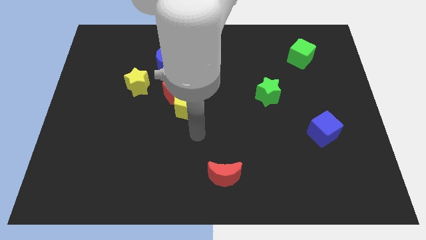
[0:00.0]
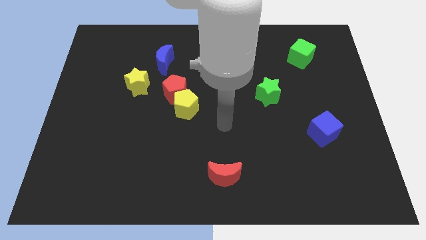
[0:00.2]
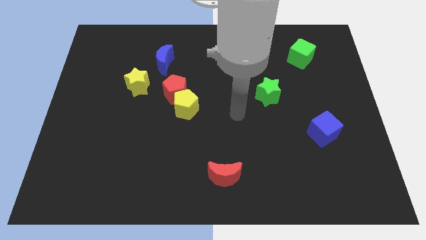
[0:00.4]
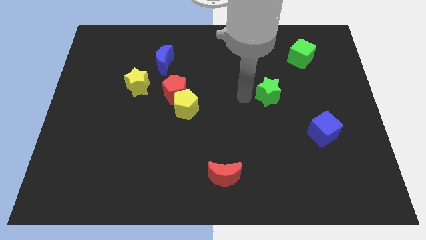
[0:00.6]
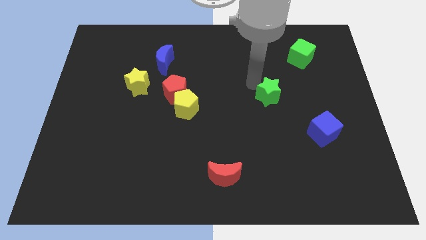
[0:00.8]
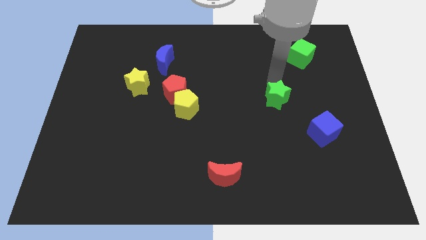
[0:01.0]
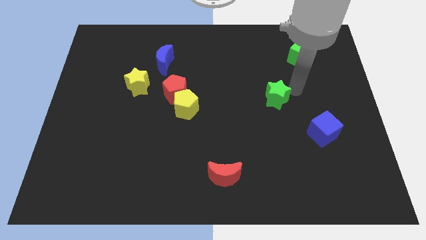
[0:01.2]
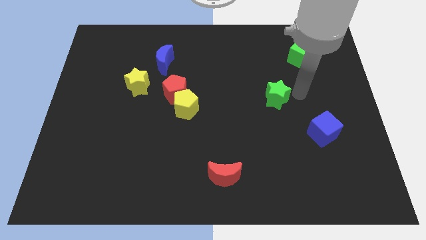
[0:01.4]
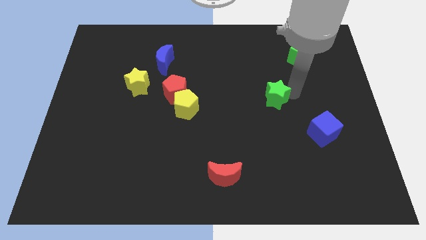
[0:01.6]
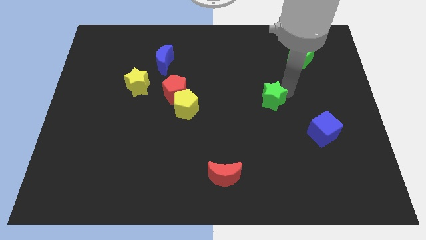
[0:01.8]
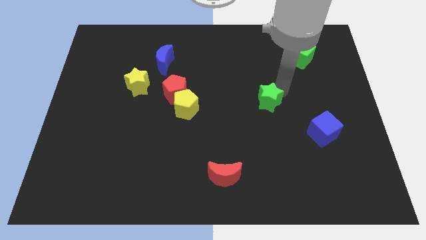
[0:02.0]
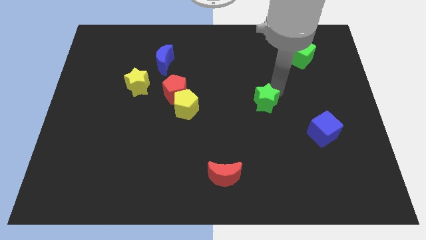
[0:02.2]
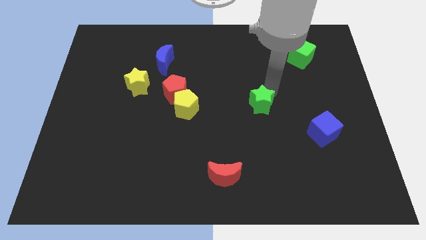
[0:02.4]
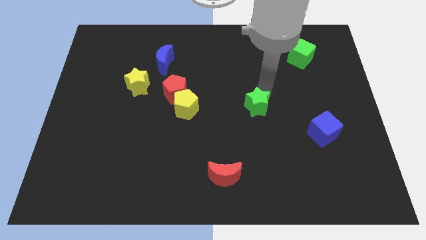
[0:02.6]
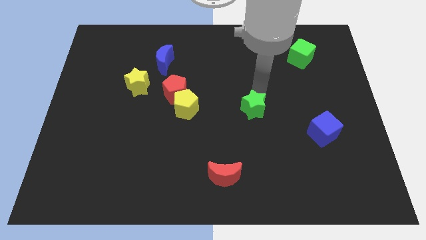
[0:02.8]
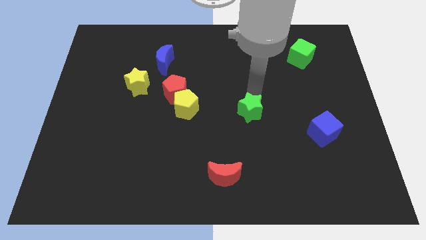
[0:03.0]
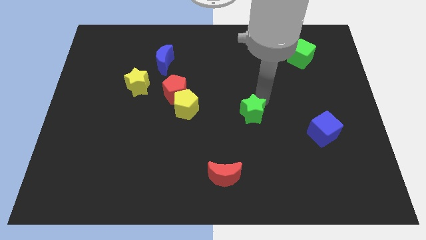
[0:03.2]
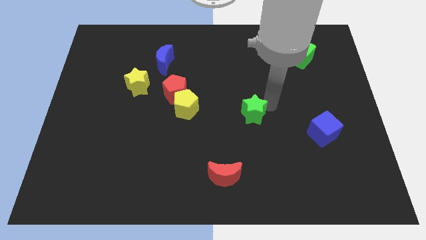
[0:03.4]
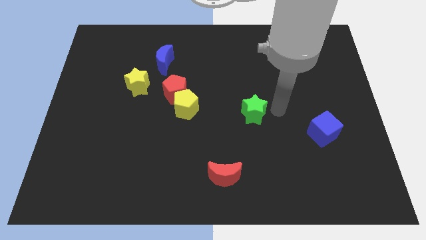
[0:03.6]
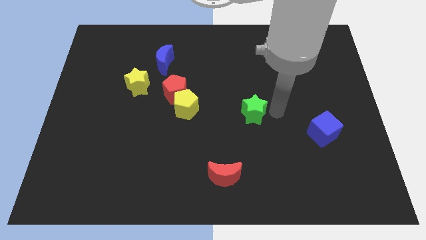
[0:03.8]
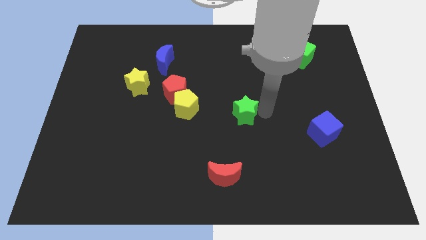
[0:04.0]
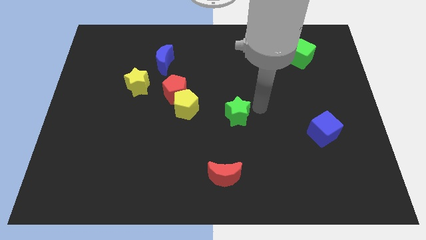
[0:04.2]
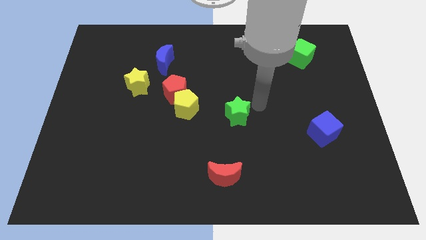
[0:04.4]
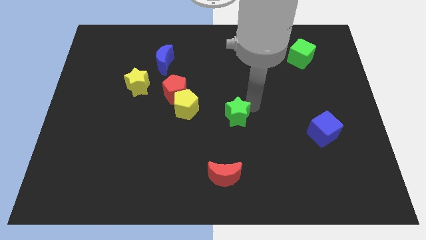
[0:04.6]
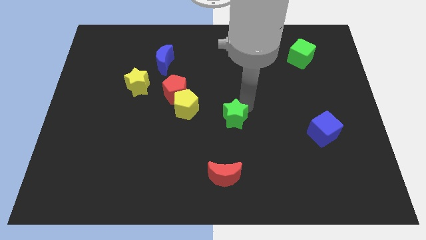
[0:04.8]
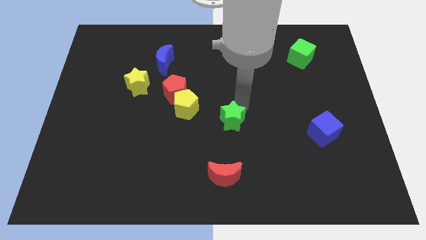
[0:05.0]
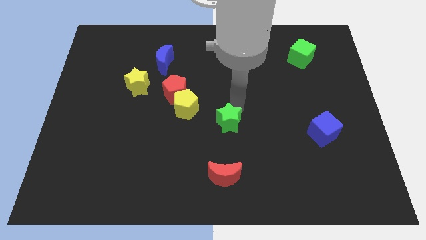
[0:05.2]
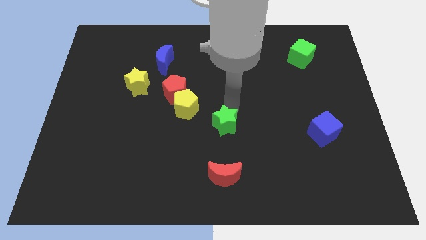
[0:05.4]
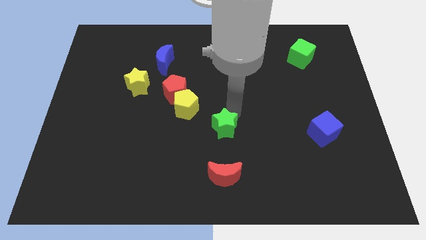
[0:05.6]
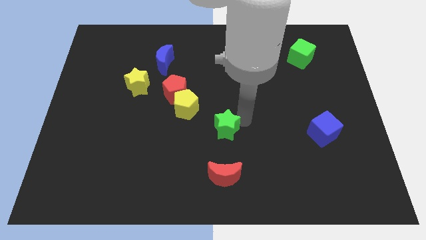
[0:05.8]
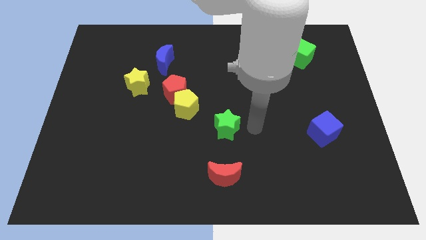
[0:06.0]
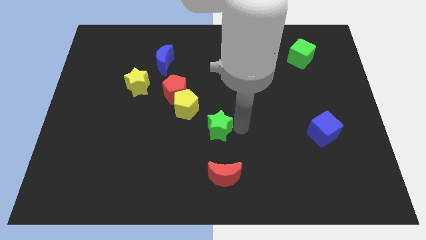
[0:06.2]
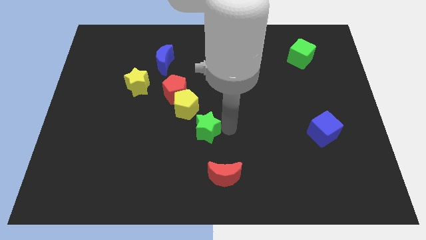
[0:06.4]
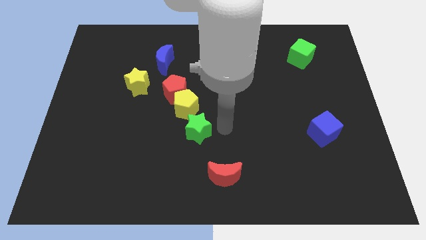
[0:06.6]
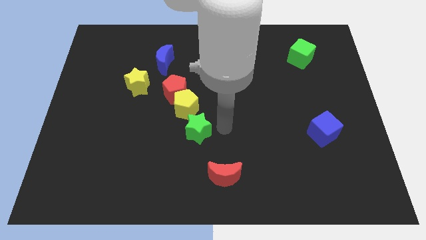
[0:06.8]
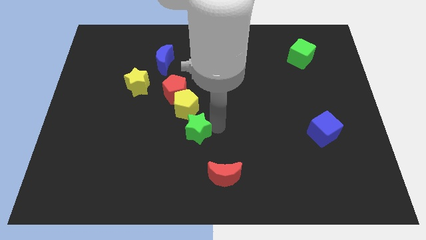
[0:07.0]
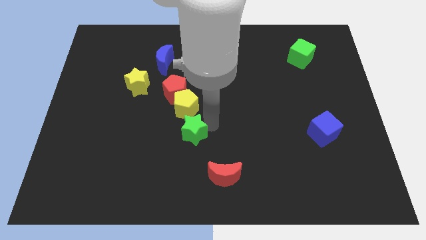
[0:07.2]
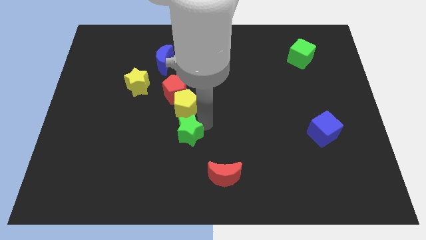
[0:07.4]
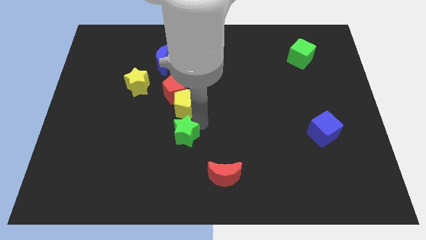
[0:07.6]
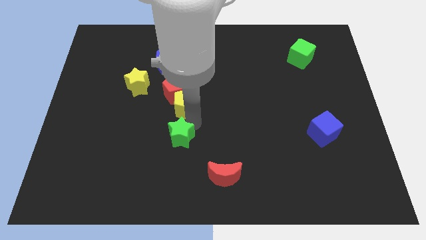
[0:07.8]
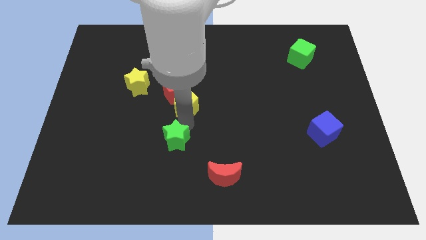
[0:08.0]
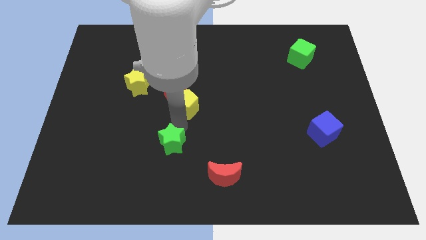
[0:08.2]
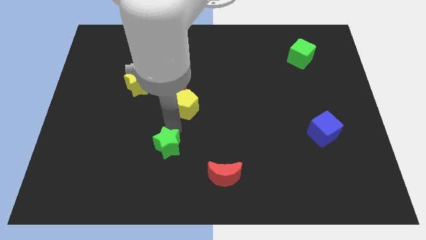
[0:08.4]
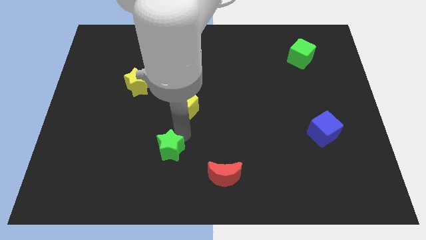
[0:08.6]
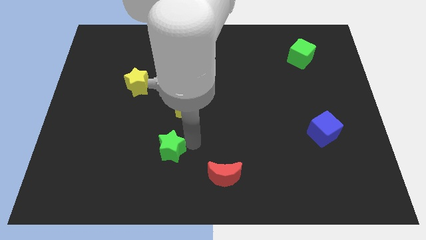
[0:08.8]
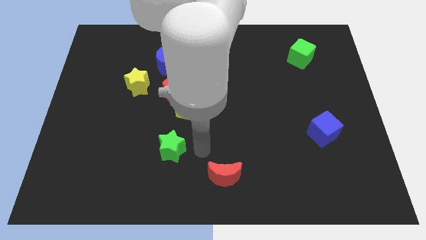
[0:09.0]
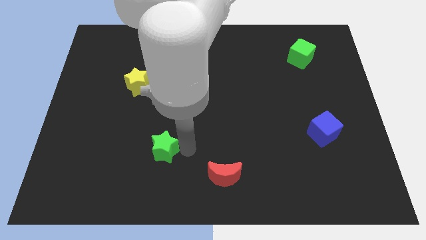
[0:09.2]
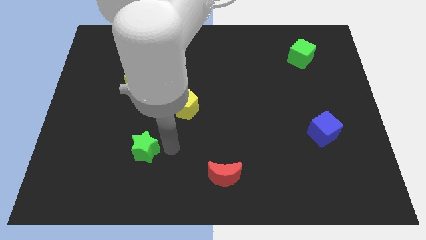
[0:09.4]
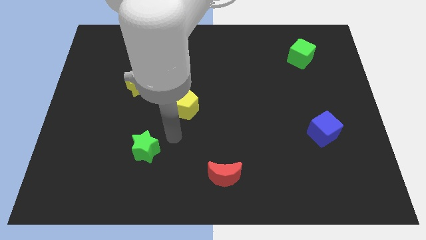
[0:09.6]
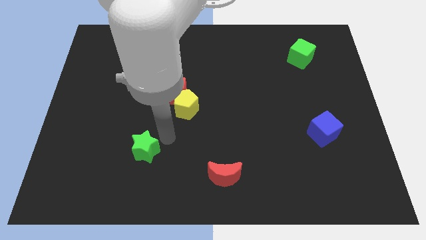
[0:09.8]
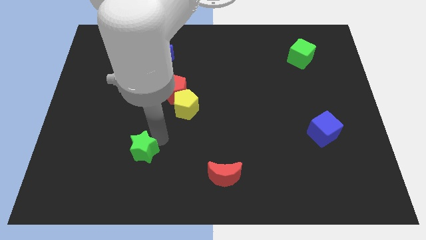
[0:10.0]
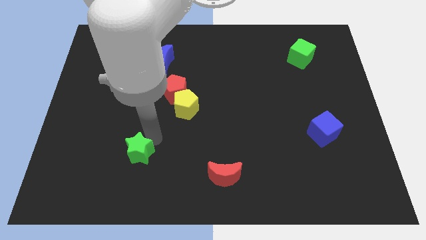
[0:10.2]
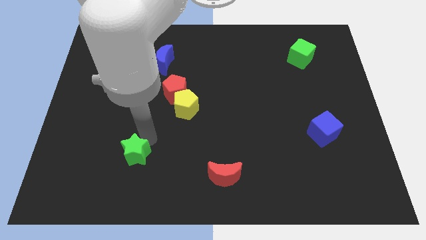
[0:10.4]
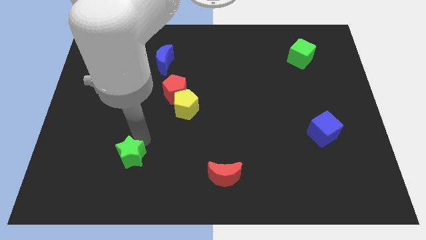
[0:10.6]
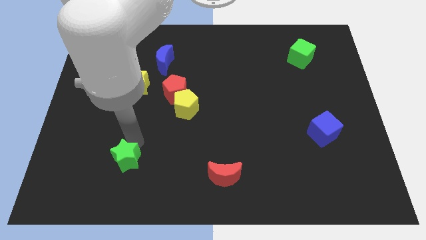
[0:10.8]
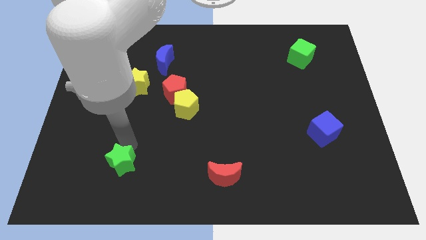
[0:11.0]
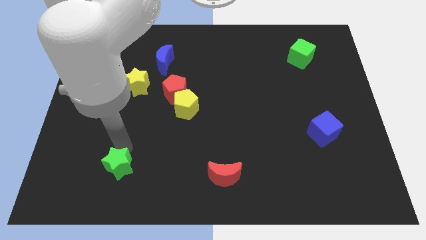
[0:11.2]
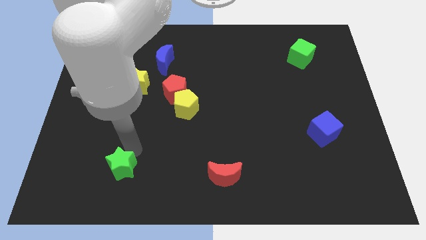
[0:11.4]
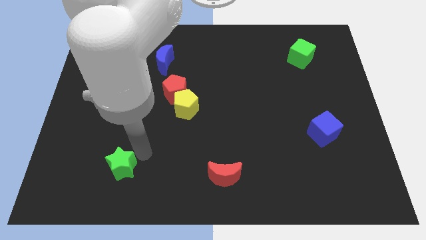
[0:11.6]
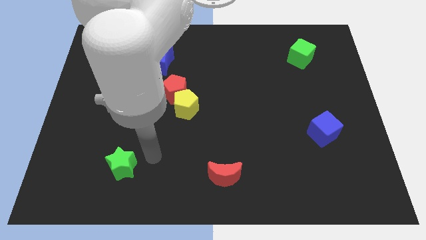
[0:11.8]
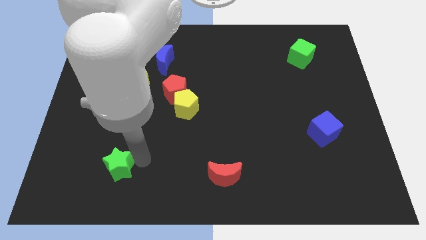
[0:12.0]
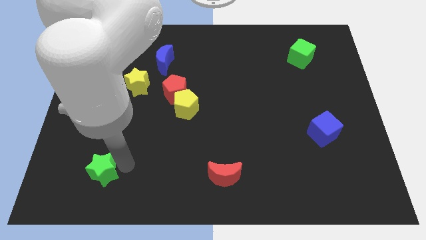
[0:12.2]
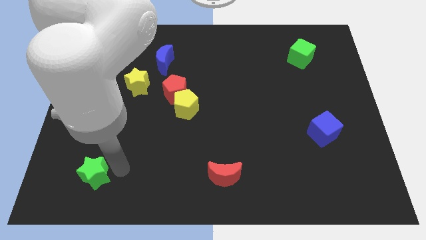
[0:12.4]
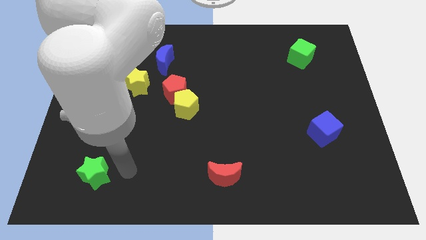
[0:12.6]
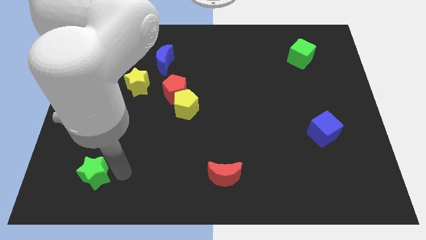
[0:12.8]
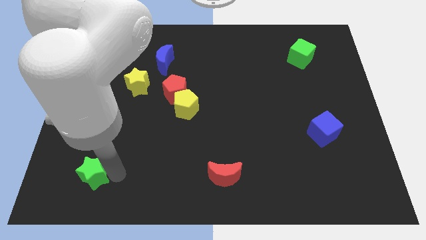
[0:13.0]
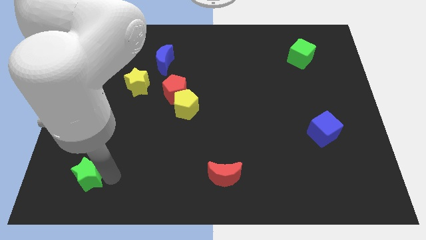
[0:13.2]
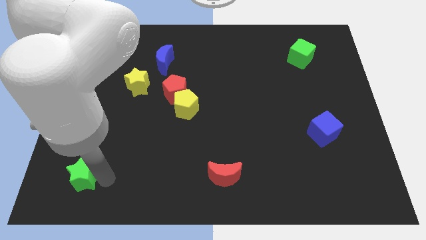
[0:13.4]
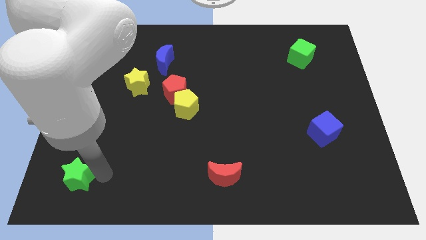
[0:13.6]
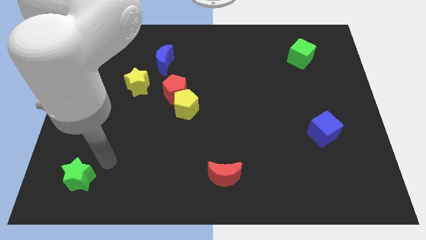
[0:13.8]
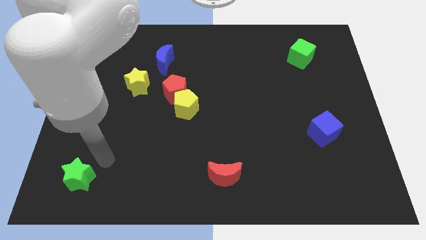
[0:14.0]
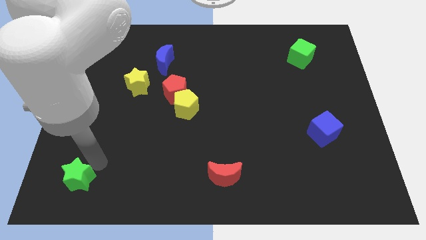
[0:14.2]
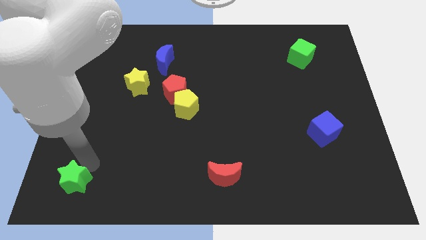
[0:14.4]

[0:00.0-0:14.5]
move the green star to the bottom left of the board

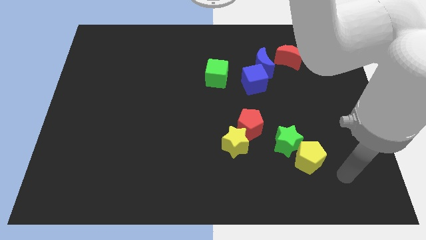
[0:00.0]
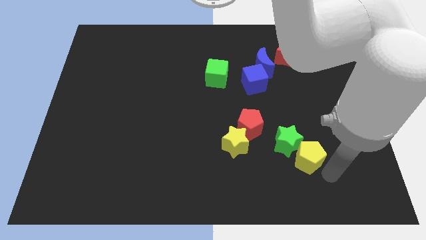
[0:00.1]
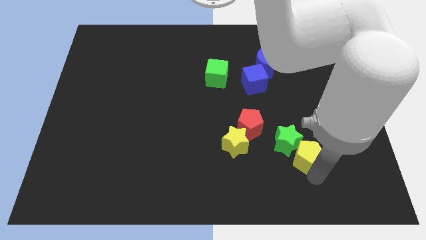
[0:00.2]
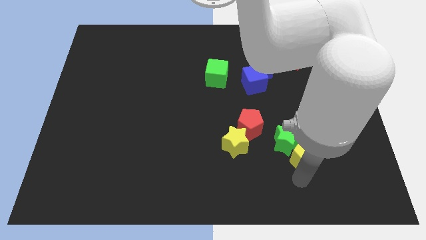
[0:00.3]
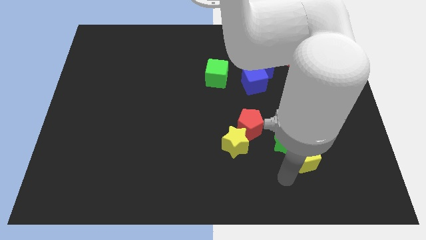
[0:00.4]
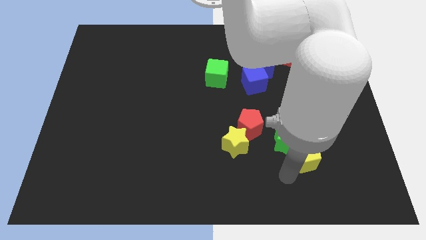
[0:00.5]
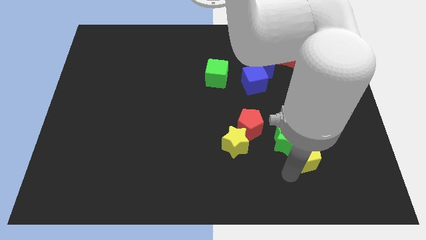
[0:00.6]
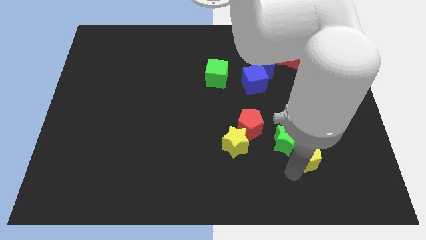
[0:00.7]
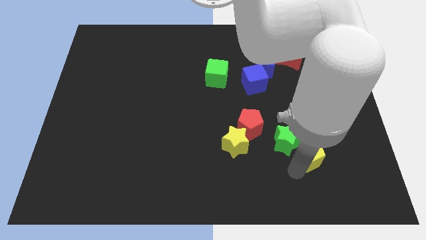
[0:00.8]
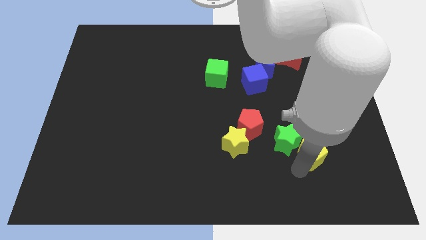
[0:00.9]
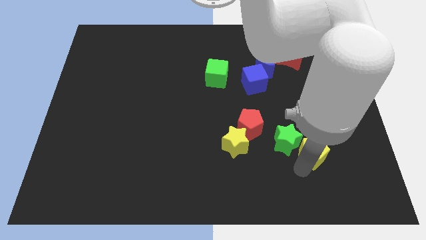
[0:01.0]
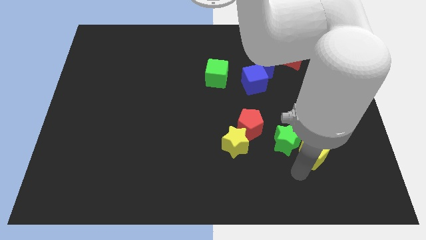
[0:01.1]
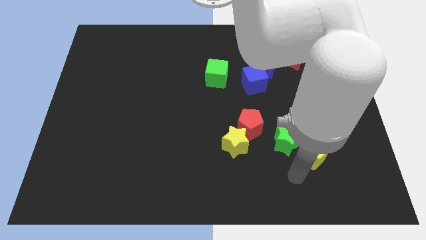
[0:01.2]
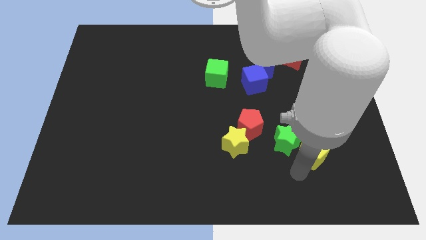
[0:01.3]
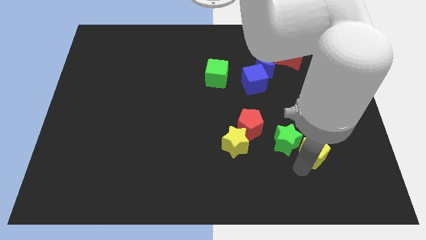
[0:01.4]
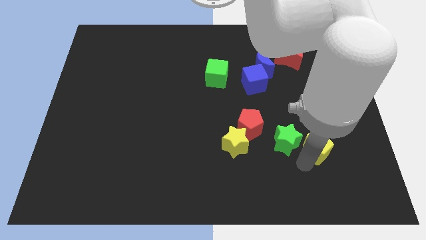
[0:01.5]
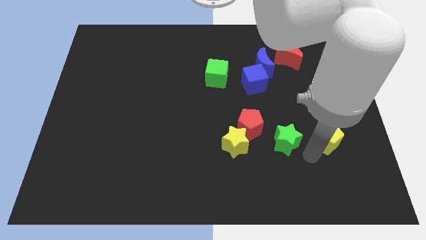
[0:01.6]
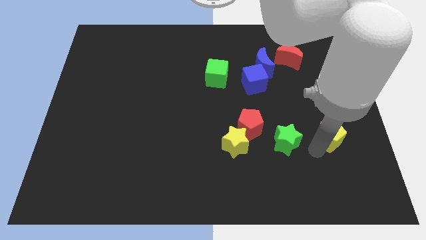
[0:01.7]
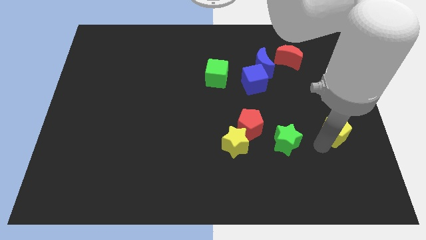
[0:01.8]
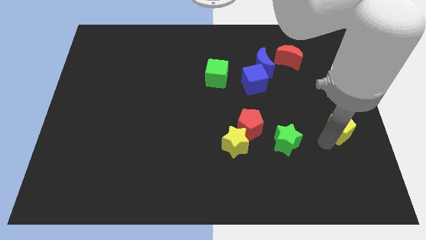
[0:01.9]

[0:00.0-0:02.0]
slide the yellow pentagon to the right side
